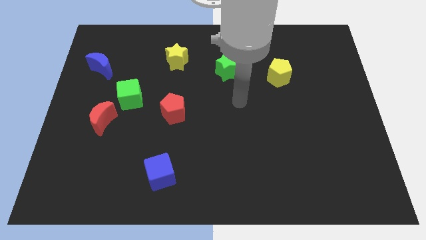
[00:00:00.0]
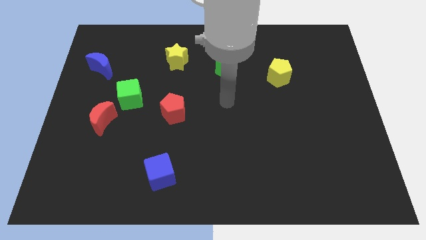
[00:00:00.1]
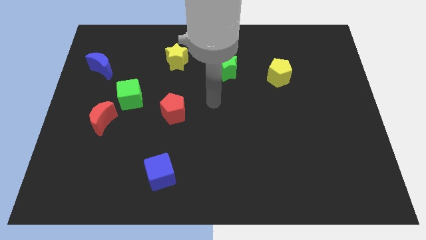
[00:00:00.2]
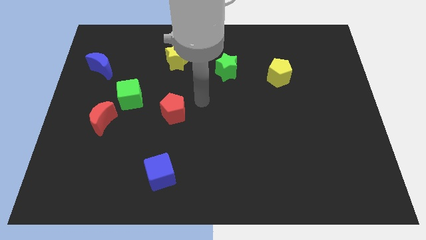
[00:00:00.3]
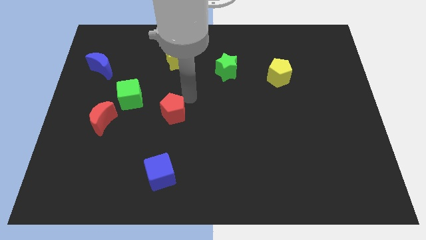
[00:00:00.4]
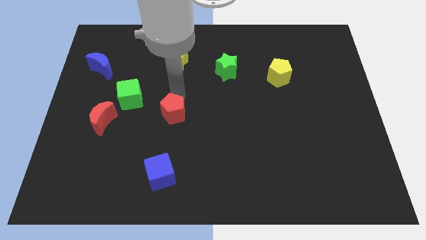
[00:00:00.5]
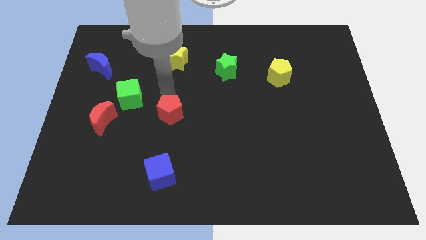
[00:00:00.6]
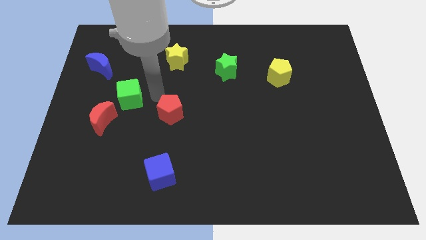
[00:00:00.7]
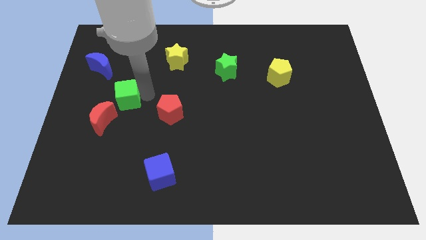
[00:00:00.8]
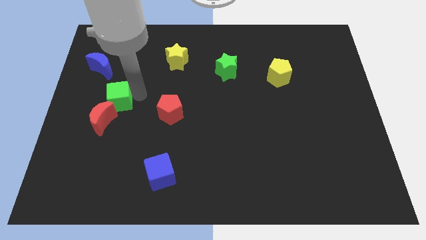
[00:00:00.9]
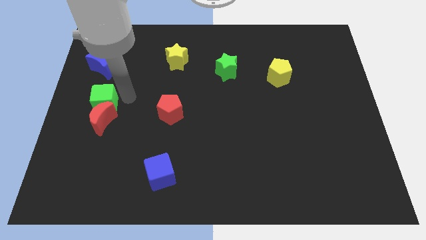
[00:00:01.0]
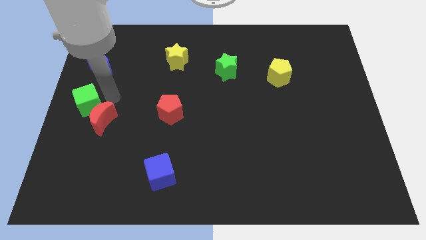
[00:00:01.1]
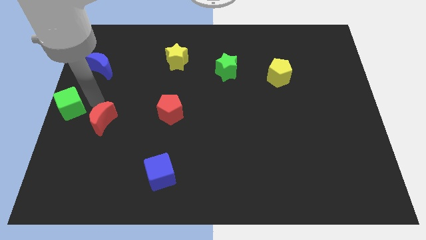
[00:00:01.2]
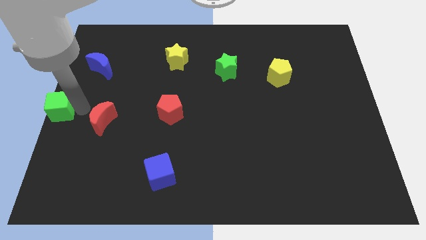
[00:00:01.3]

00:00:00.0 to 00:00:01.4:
separate the red moon from the green cube

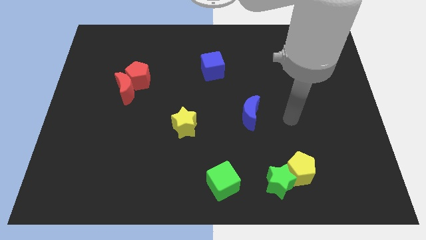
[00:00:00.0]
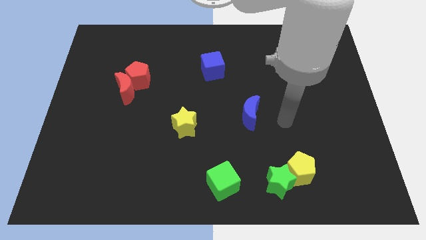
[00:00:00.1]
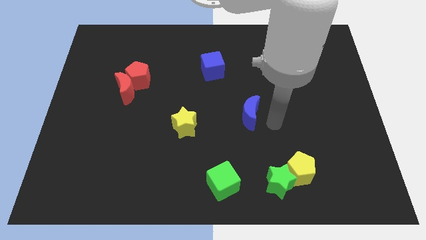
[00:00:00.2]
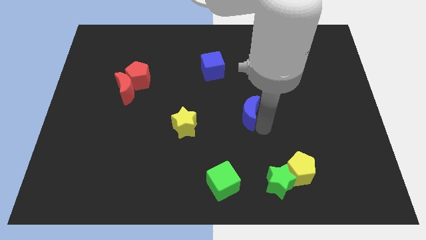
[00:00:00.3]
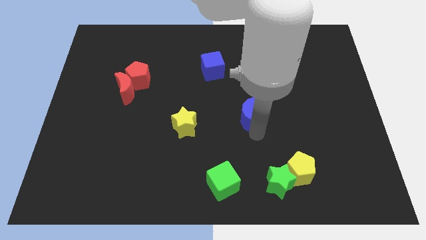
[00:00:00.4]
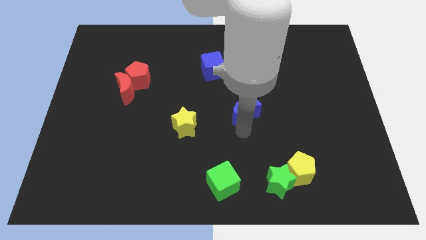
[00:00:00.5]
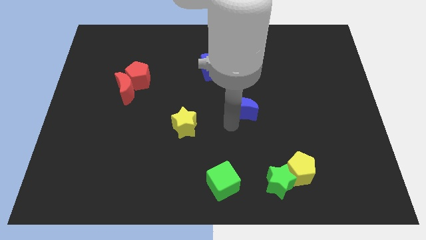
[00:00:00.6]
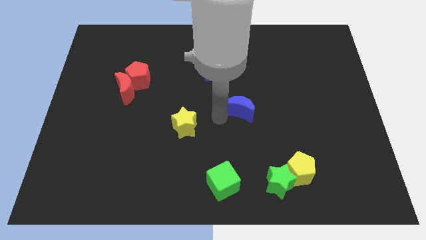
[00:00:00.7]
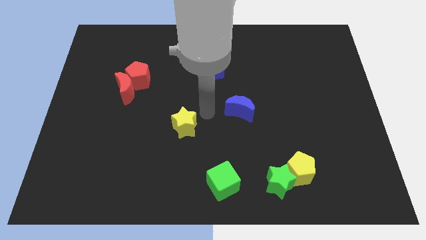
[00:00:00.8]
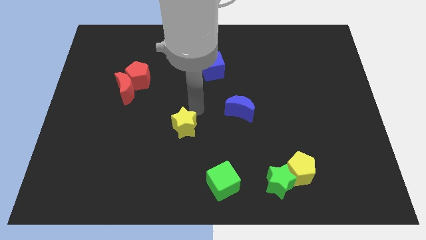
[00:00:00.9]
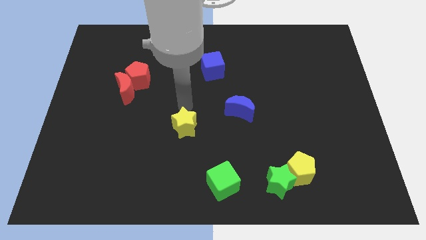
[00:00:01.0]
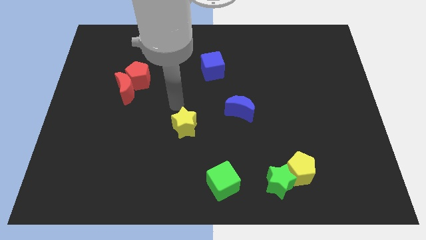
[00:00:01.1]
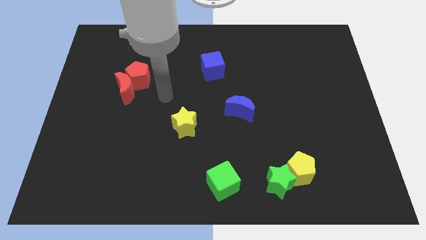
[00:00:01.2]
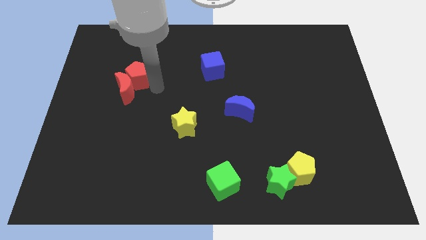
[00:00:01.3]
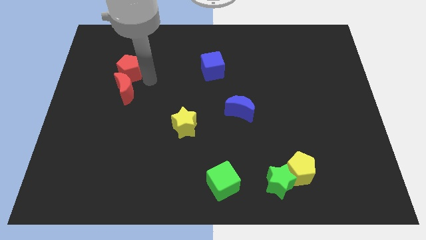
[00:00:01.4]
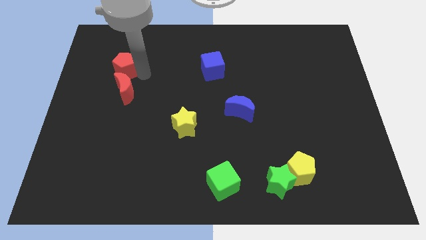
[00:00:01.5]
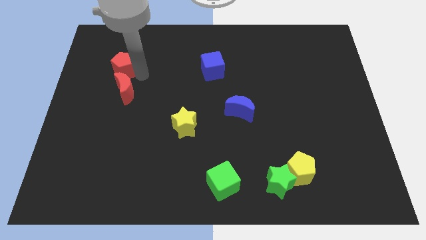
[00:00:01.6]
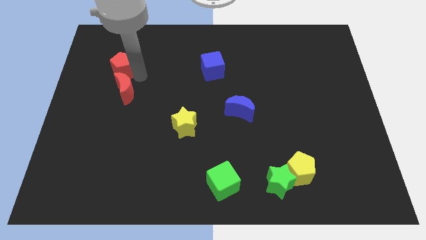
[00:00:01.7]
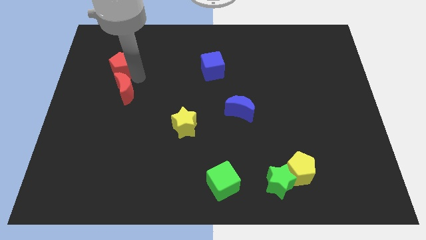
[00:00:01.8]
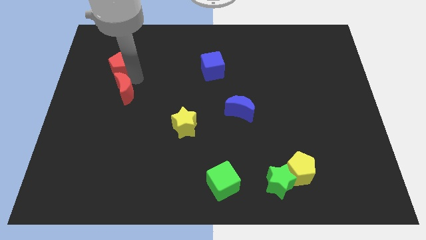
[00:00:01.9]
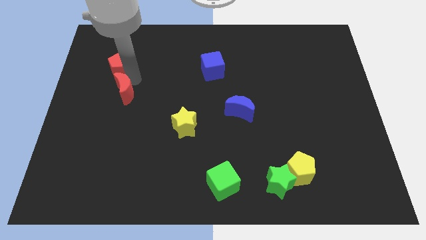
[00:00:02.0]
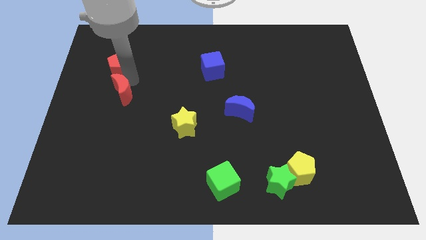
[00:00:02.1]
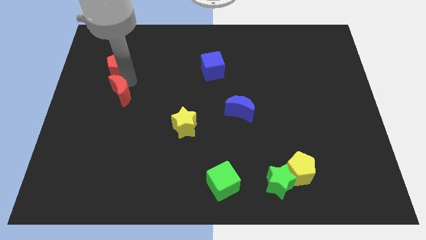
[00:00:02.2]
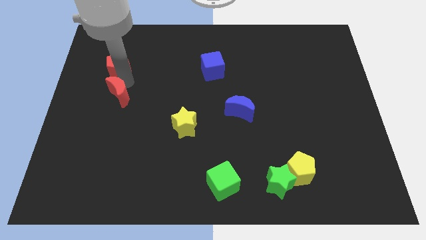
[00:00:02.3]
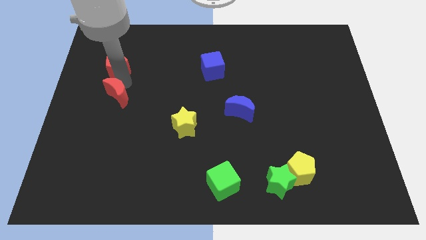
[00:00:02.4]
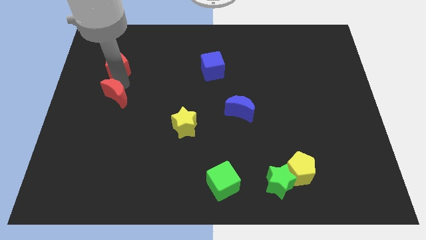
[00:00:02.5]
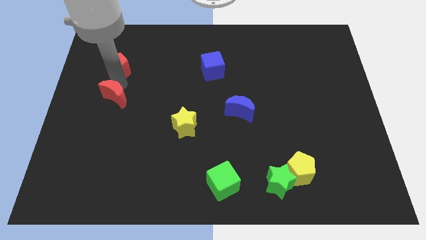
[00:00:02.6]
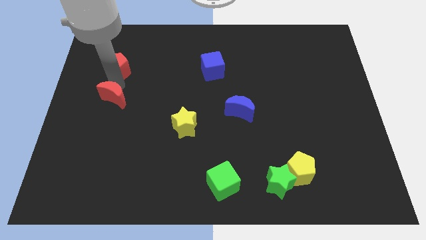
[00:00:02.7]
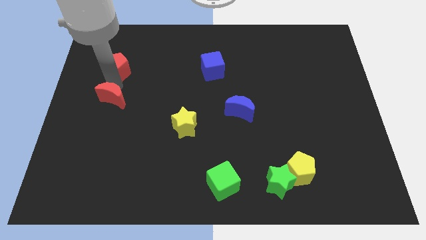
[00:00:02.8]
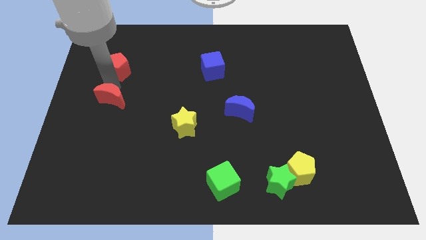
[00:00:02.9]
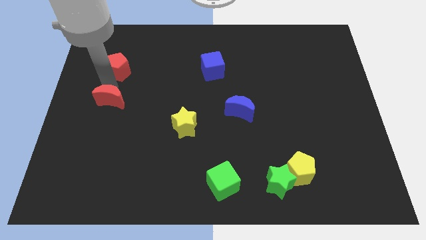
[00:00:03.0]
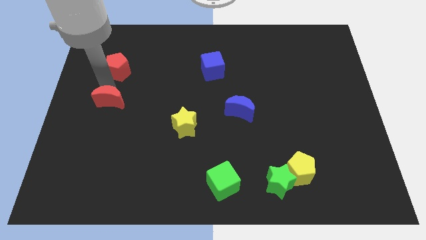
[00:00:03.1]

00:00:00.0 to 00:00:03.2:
pull the red moon apart from the red pentagon

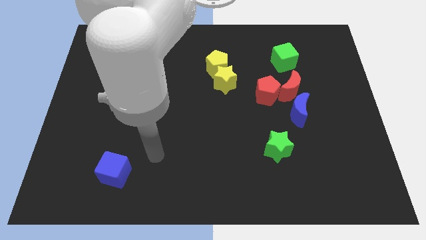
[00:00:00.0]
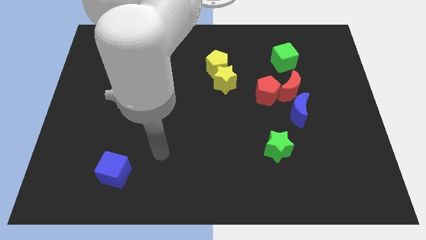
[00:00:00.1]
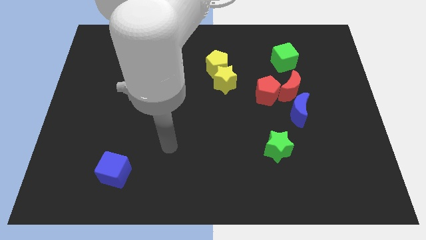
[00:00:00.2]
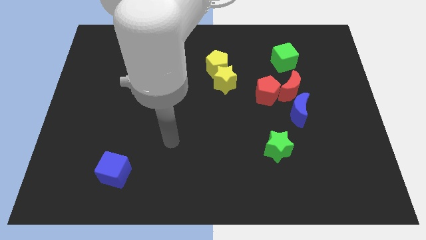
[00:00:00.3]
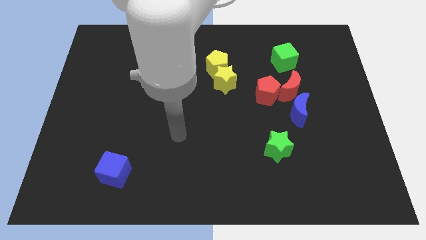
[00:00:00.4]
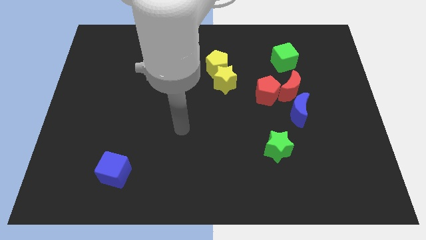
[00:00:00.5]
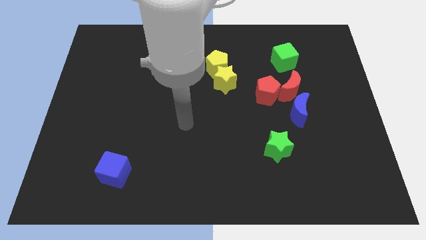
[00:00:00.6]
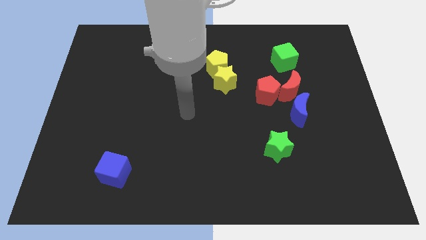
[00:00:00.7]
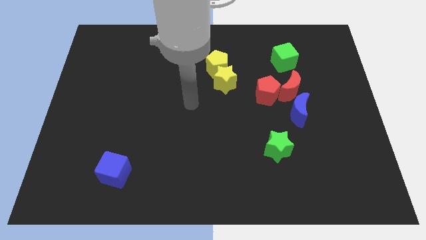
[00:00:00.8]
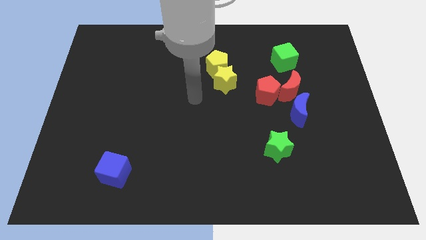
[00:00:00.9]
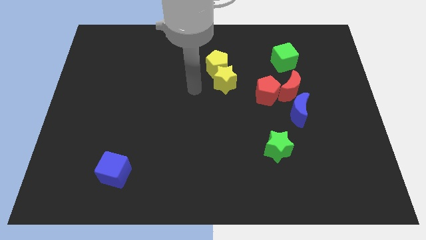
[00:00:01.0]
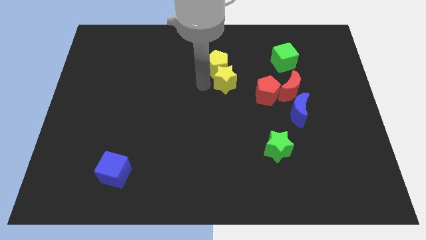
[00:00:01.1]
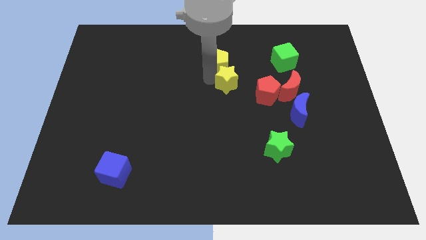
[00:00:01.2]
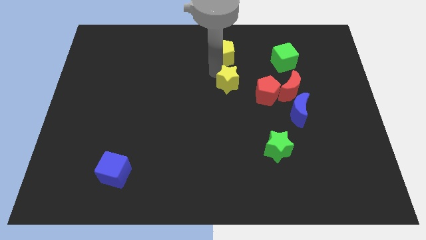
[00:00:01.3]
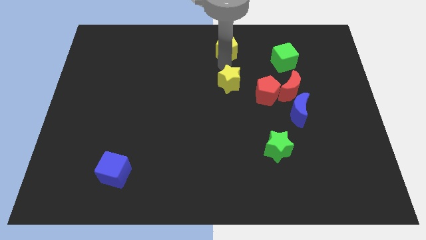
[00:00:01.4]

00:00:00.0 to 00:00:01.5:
pull the yellow star apart from the yellow pentagon

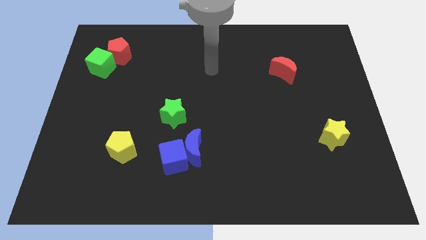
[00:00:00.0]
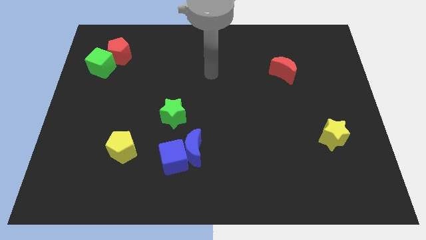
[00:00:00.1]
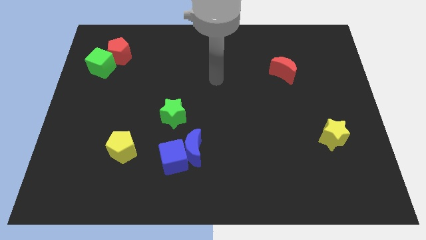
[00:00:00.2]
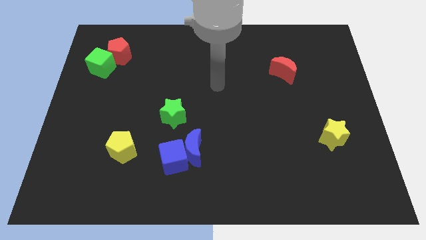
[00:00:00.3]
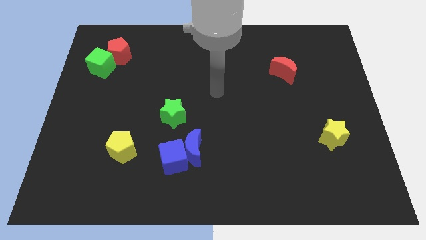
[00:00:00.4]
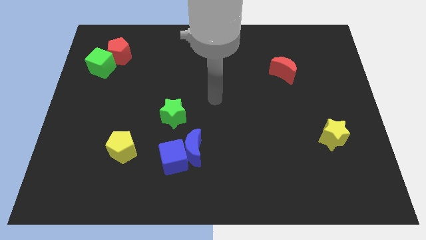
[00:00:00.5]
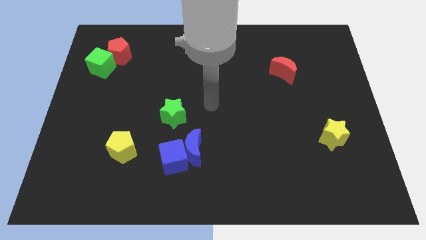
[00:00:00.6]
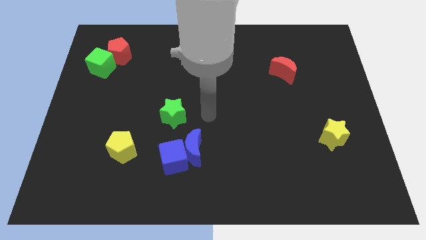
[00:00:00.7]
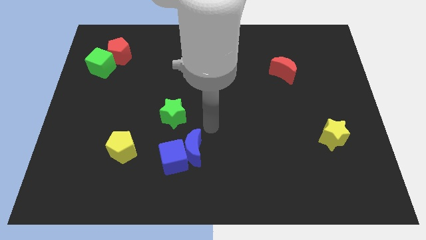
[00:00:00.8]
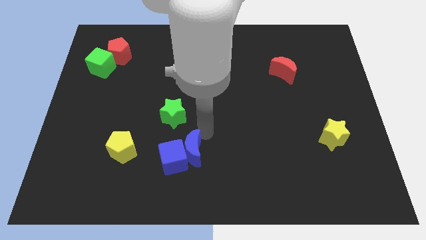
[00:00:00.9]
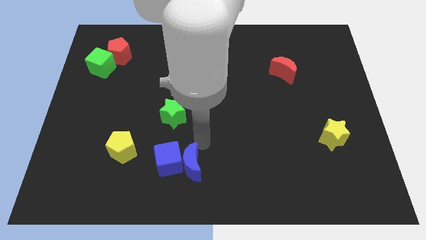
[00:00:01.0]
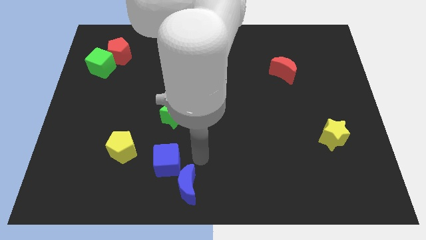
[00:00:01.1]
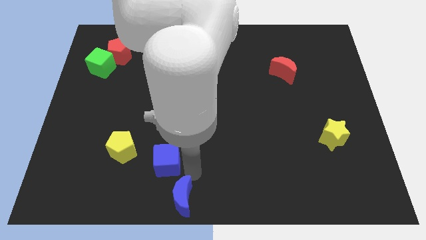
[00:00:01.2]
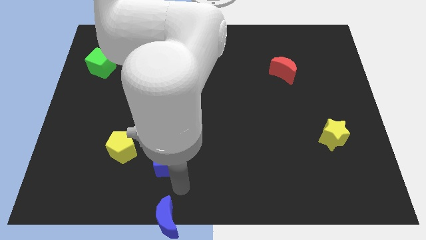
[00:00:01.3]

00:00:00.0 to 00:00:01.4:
move the blue cube away from the blue moon

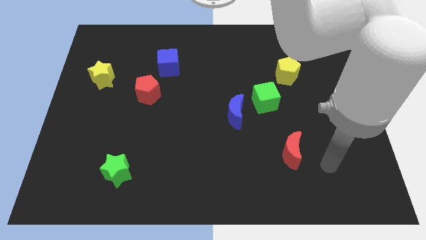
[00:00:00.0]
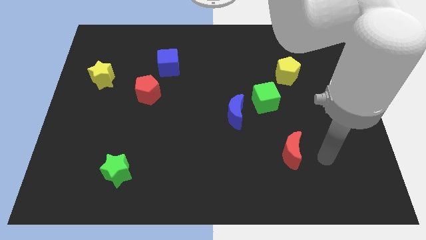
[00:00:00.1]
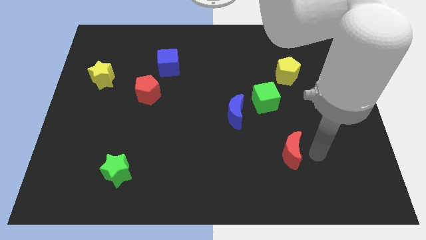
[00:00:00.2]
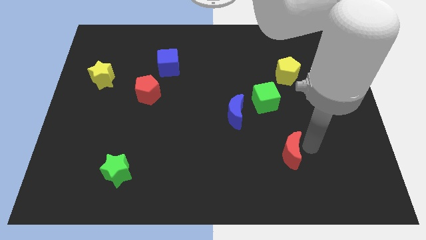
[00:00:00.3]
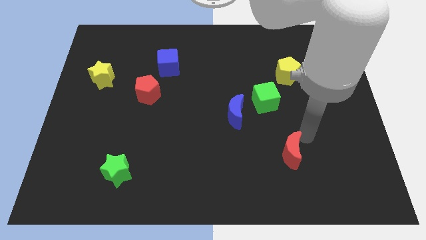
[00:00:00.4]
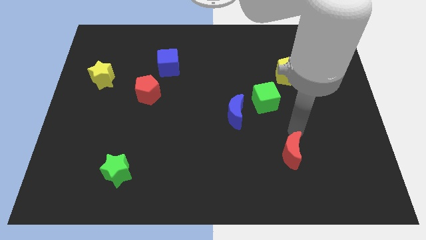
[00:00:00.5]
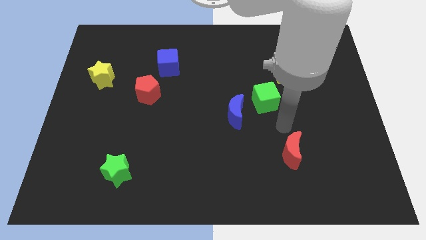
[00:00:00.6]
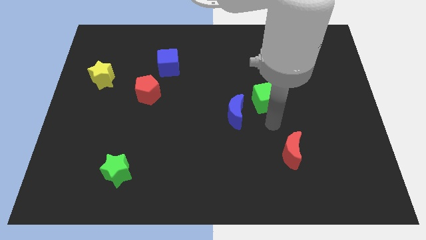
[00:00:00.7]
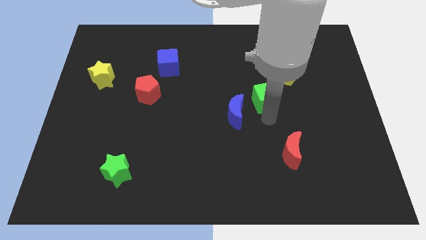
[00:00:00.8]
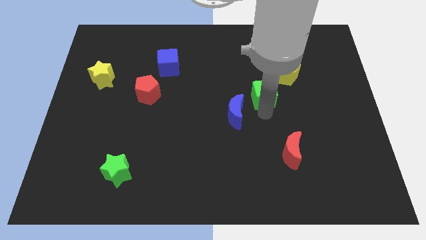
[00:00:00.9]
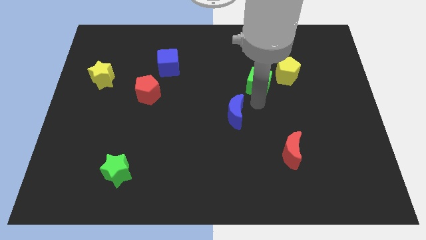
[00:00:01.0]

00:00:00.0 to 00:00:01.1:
separate the blue moon from the green cube

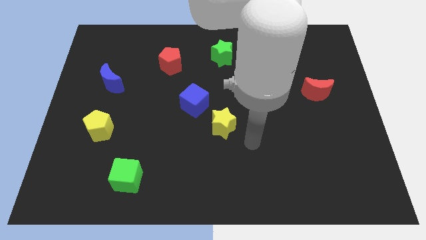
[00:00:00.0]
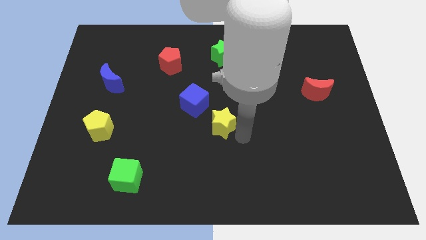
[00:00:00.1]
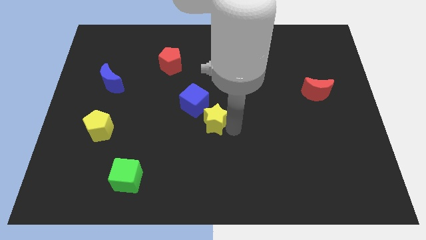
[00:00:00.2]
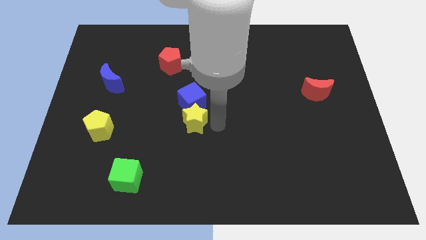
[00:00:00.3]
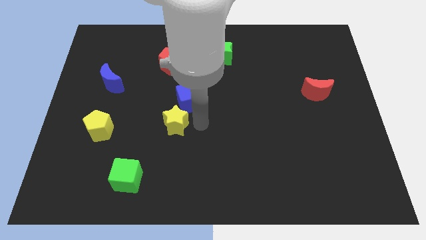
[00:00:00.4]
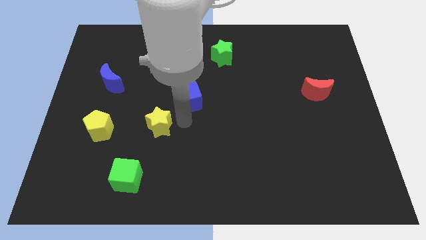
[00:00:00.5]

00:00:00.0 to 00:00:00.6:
pull the blue cube apart from the yellow star
